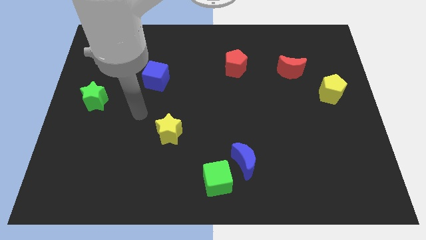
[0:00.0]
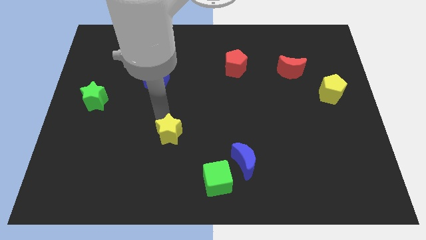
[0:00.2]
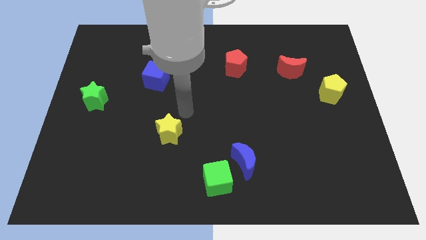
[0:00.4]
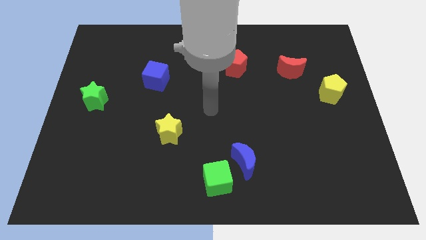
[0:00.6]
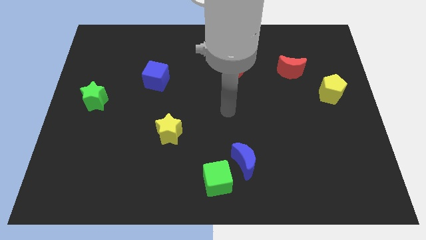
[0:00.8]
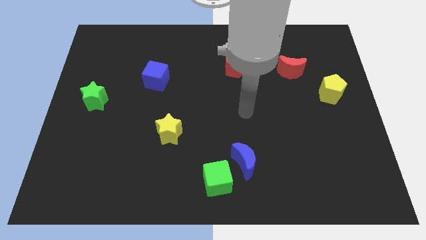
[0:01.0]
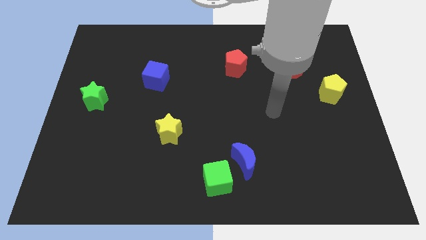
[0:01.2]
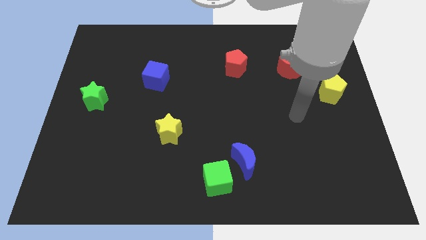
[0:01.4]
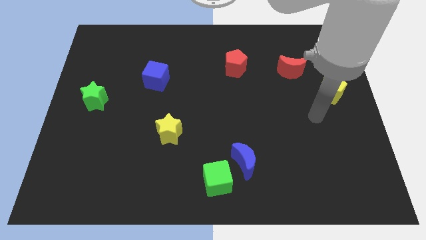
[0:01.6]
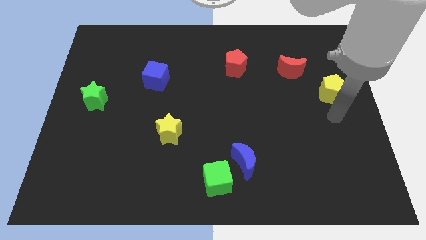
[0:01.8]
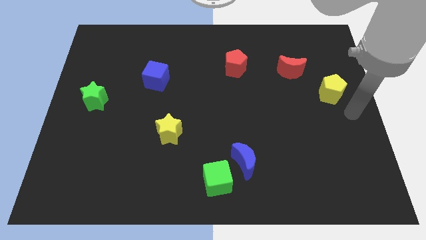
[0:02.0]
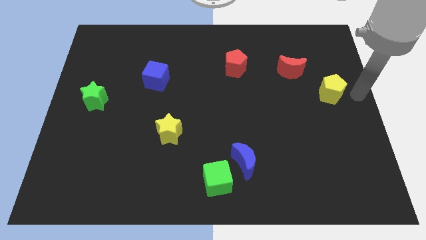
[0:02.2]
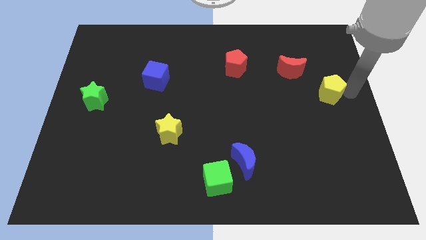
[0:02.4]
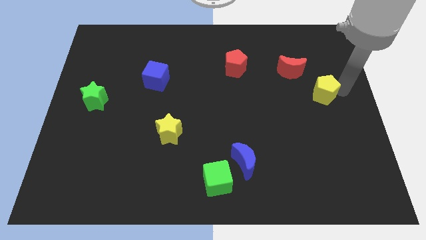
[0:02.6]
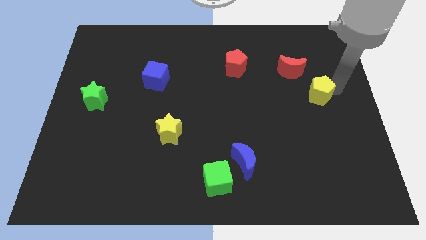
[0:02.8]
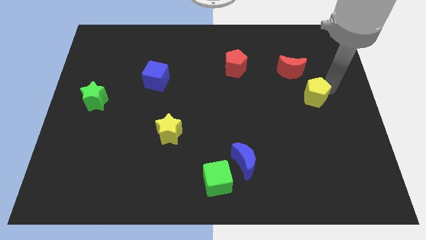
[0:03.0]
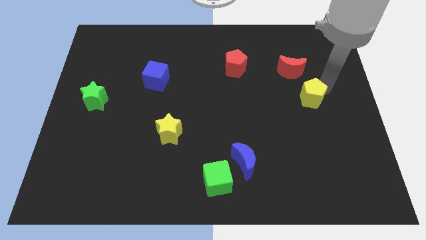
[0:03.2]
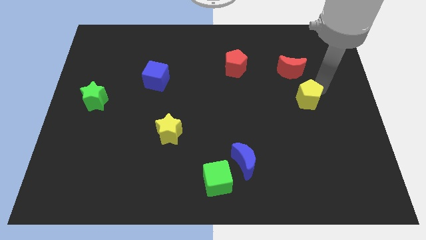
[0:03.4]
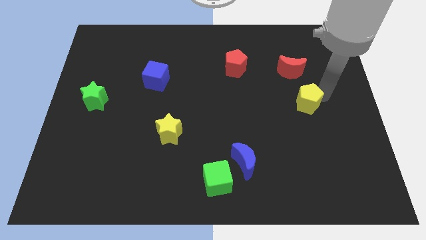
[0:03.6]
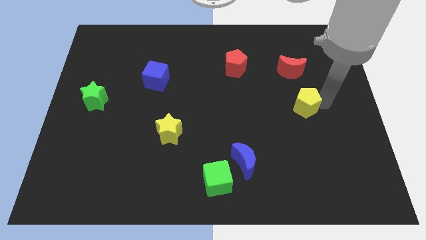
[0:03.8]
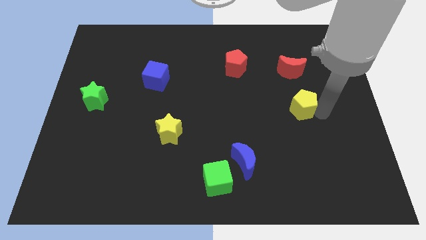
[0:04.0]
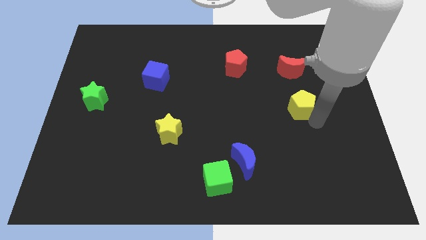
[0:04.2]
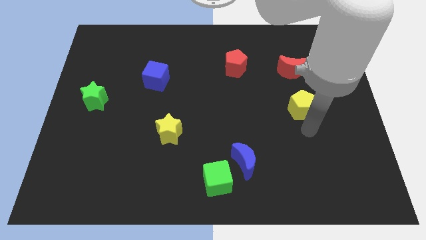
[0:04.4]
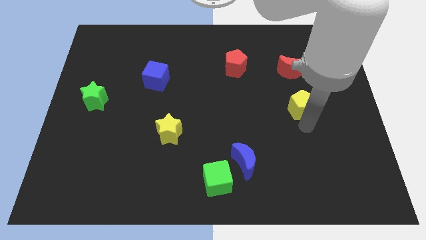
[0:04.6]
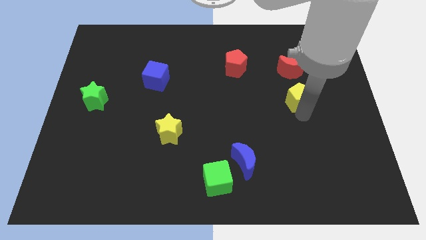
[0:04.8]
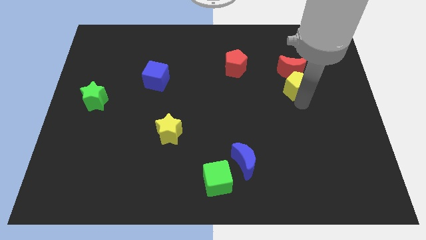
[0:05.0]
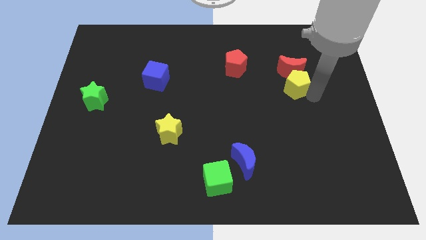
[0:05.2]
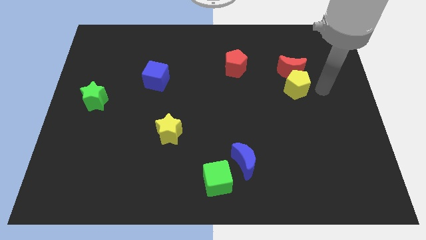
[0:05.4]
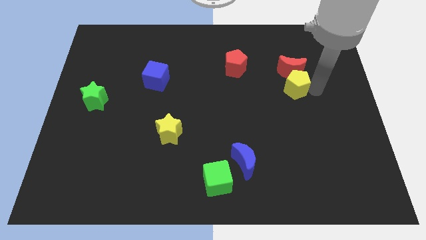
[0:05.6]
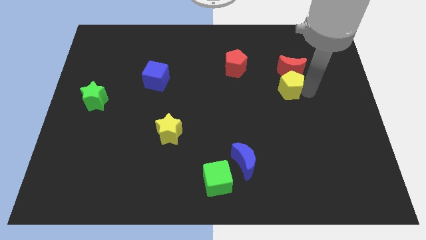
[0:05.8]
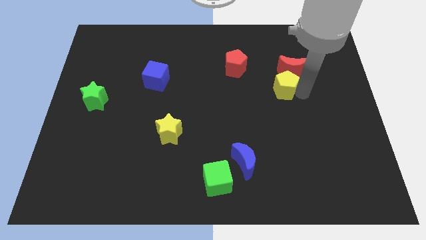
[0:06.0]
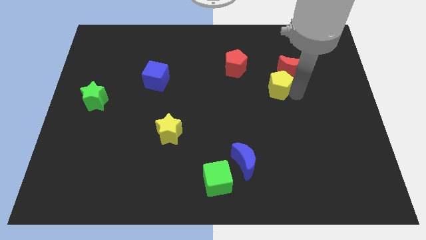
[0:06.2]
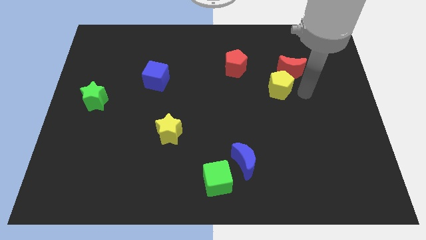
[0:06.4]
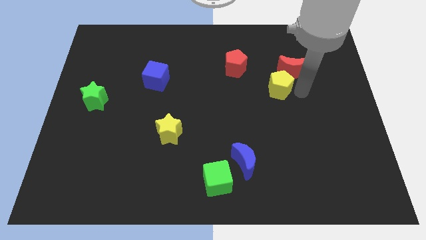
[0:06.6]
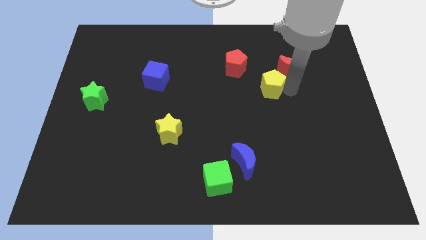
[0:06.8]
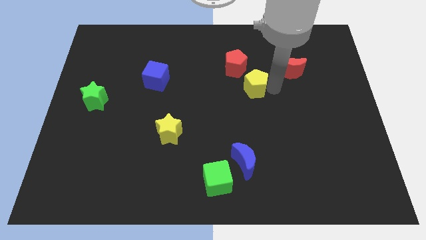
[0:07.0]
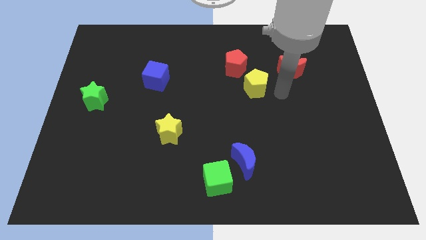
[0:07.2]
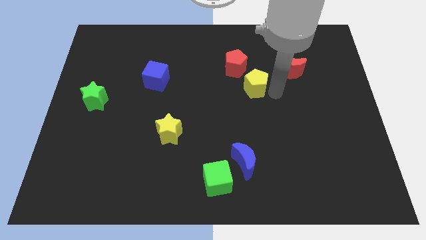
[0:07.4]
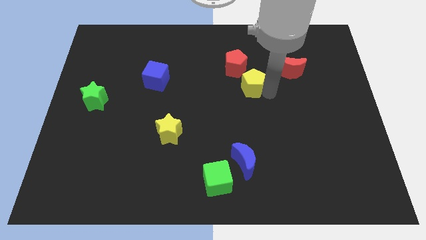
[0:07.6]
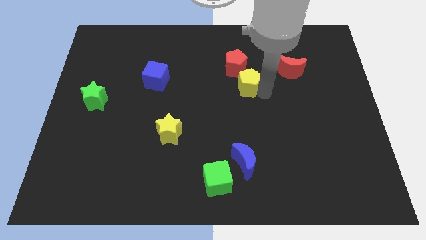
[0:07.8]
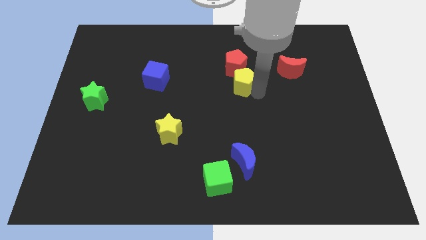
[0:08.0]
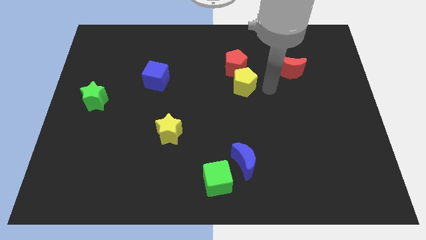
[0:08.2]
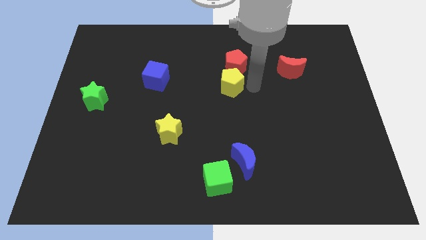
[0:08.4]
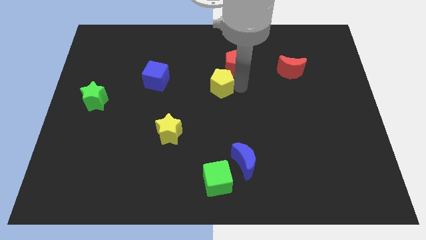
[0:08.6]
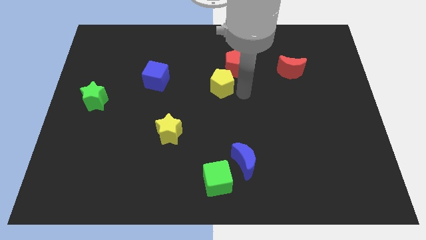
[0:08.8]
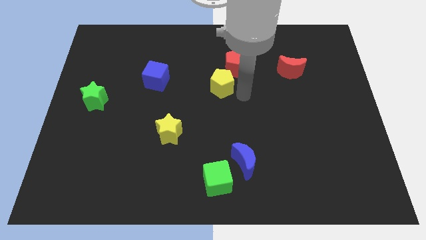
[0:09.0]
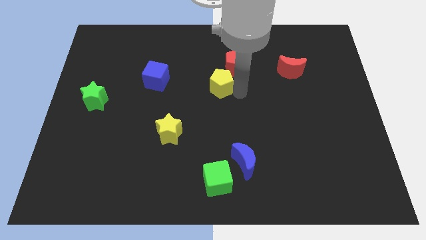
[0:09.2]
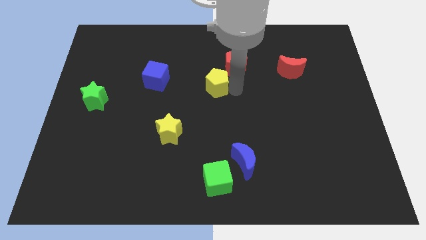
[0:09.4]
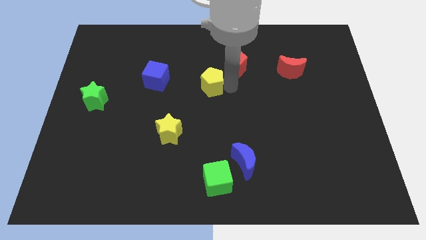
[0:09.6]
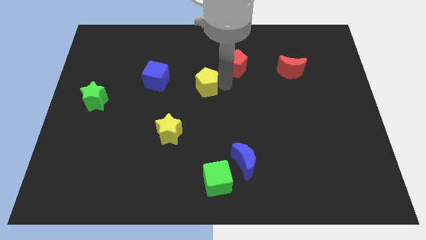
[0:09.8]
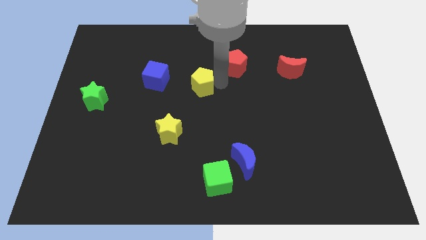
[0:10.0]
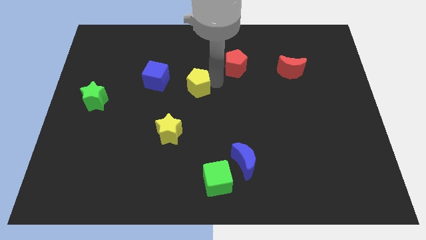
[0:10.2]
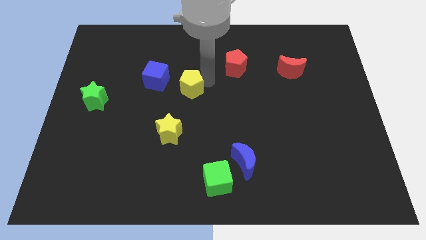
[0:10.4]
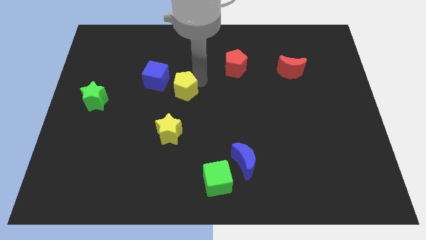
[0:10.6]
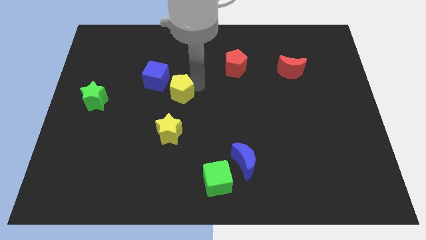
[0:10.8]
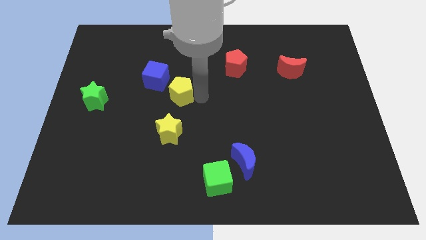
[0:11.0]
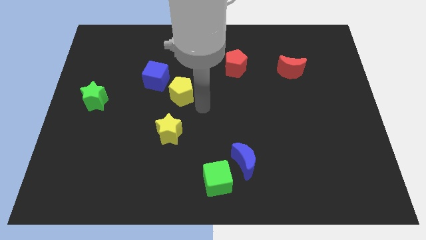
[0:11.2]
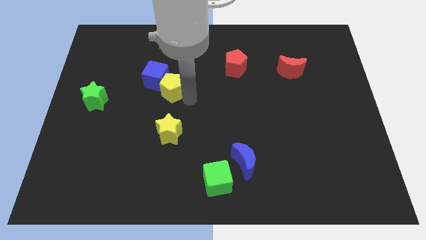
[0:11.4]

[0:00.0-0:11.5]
push the yellow pentagon to the blue cube

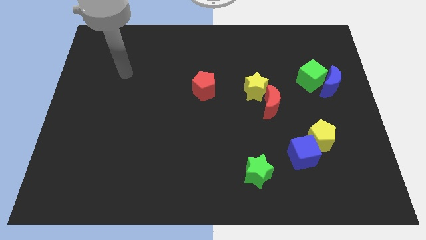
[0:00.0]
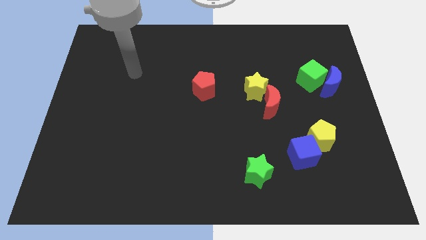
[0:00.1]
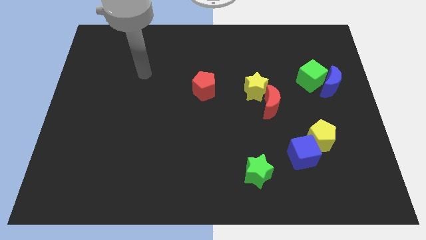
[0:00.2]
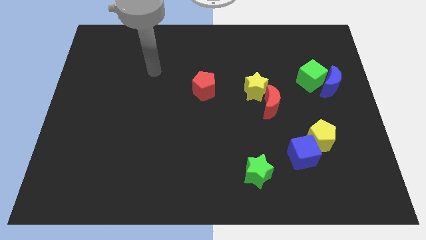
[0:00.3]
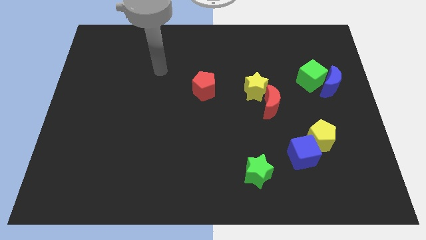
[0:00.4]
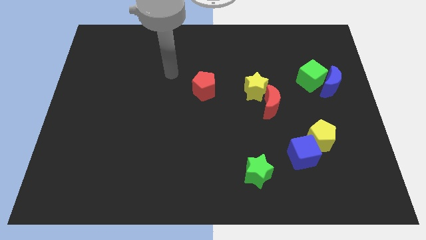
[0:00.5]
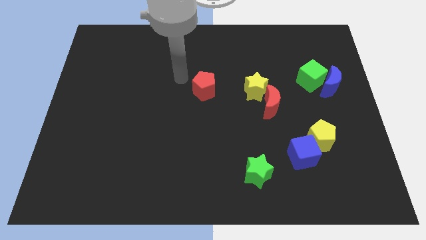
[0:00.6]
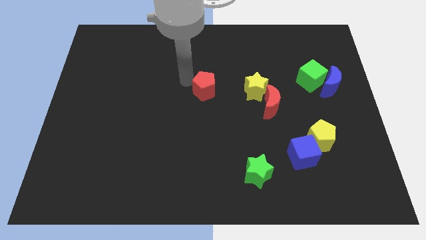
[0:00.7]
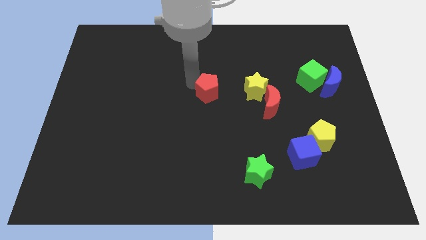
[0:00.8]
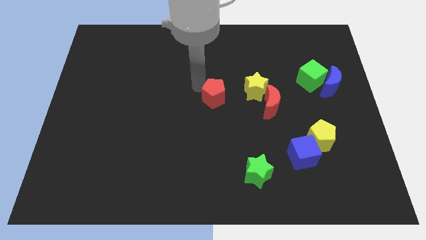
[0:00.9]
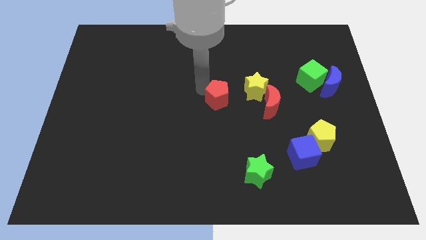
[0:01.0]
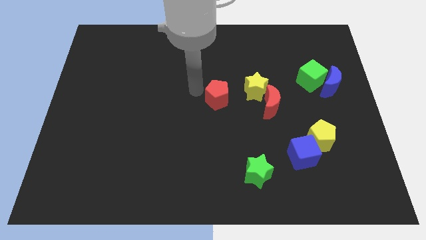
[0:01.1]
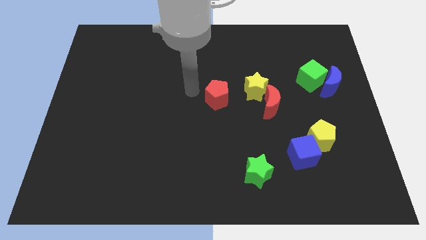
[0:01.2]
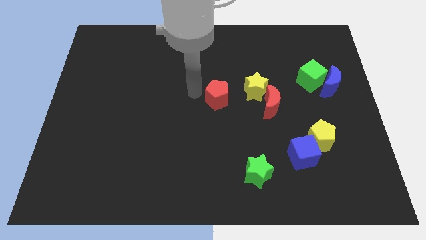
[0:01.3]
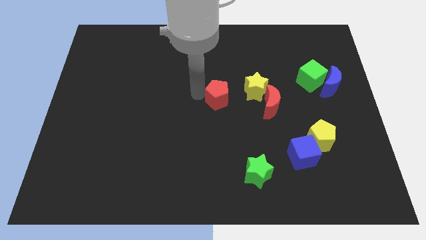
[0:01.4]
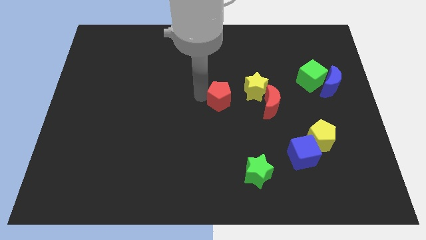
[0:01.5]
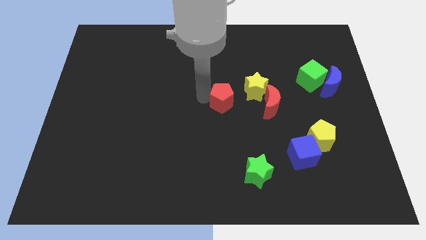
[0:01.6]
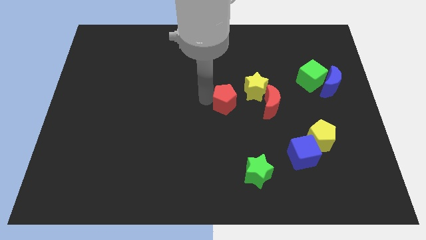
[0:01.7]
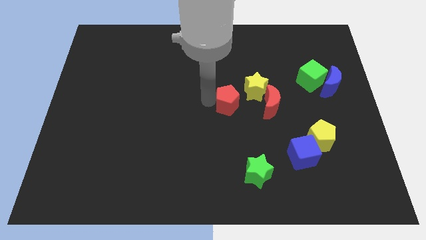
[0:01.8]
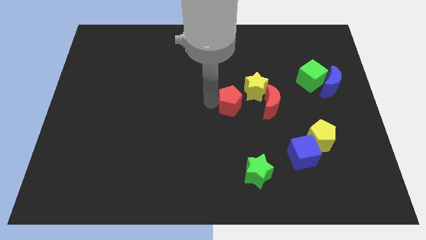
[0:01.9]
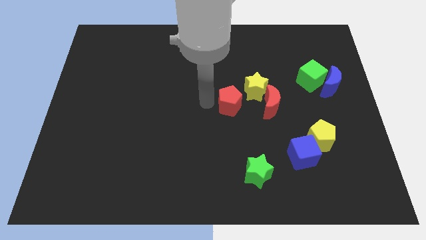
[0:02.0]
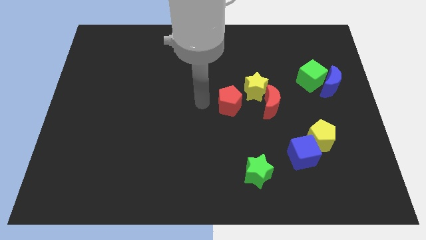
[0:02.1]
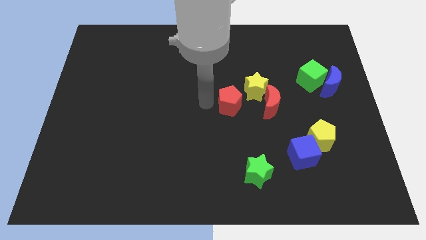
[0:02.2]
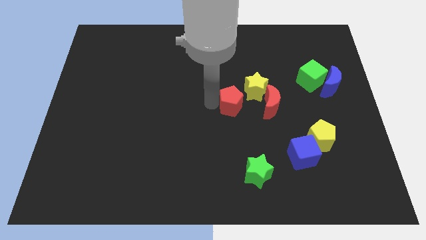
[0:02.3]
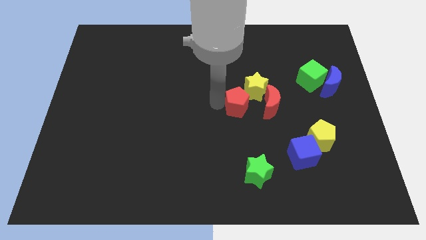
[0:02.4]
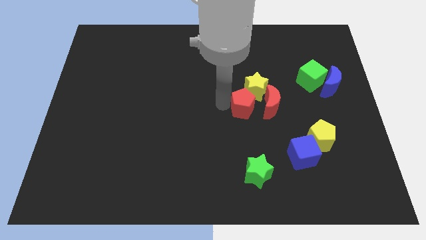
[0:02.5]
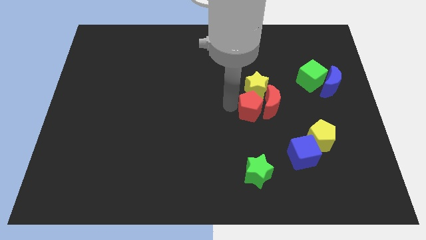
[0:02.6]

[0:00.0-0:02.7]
slide the red pentagon towards the red moon
